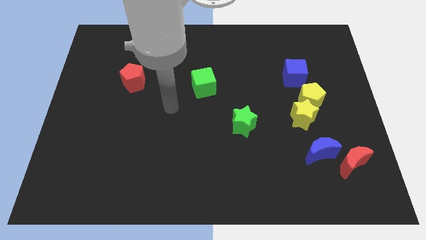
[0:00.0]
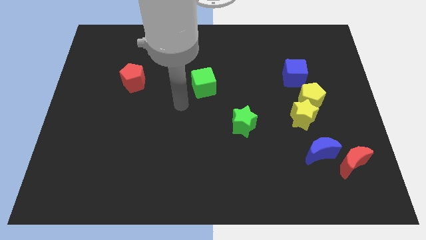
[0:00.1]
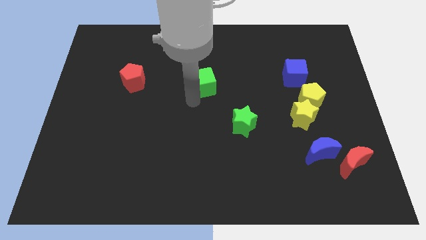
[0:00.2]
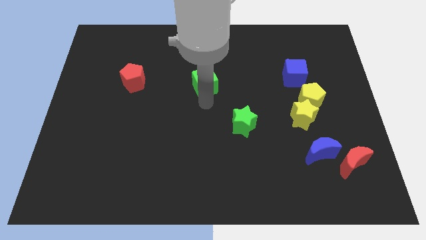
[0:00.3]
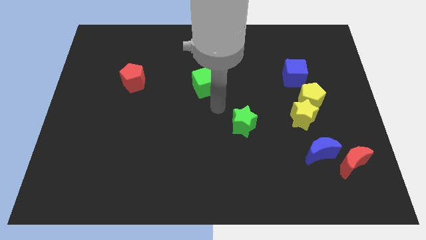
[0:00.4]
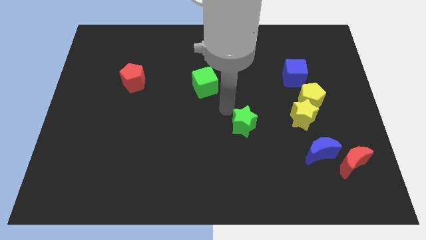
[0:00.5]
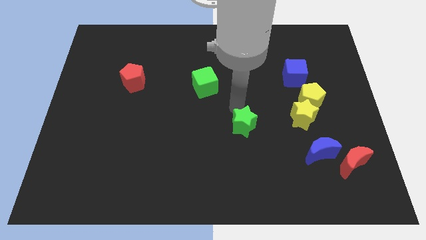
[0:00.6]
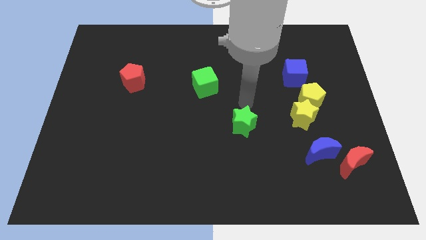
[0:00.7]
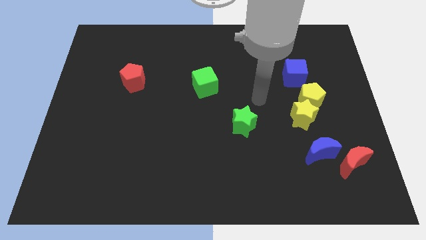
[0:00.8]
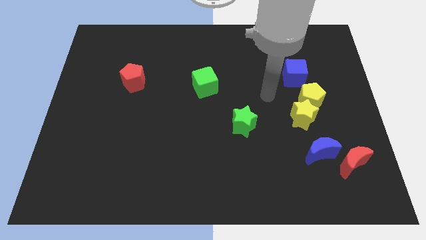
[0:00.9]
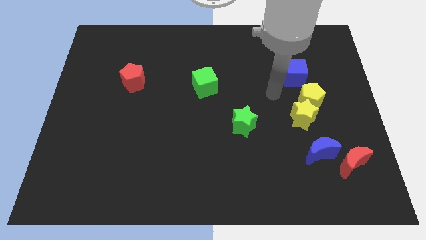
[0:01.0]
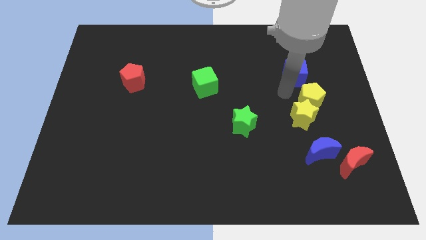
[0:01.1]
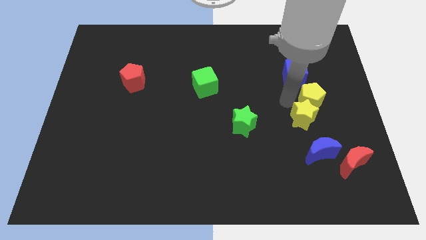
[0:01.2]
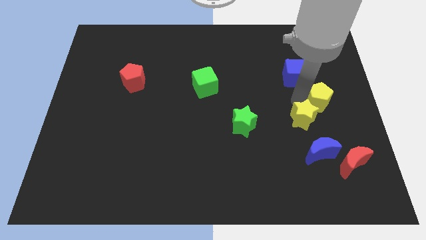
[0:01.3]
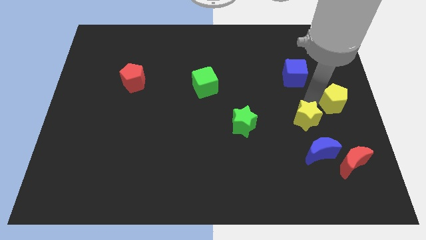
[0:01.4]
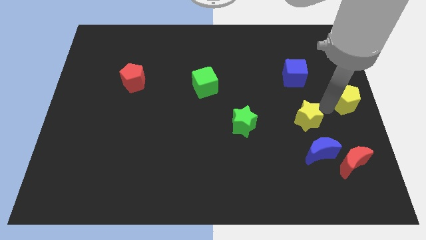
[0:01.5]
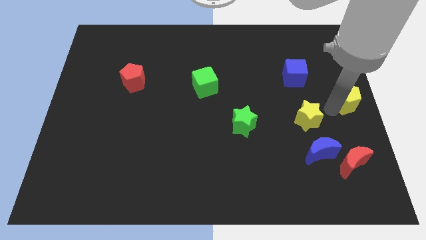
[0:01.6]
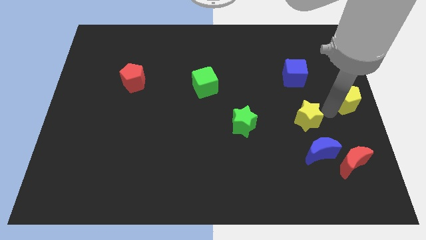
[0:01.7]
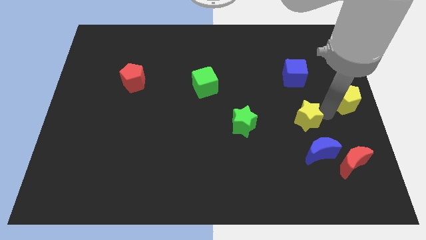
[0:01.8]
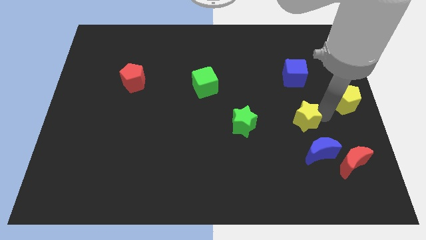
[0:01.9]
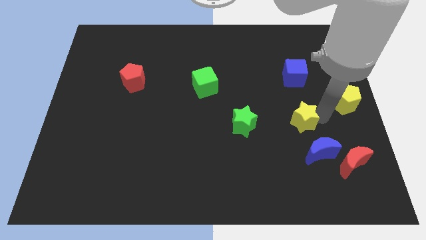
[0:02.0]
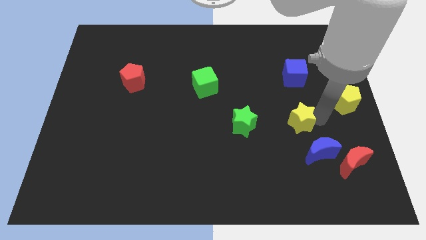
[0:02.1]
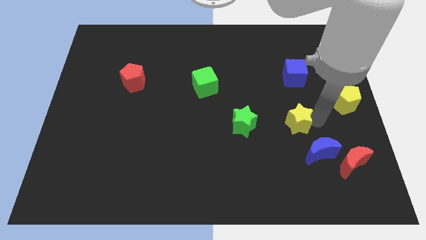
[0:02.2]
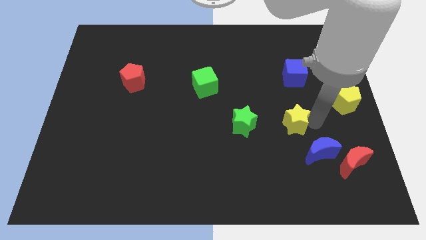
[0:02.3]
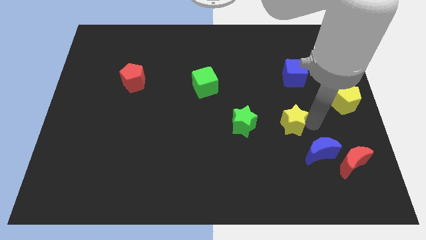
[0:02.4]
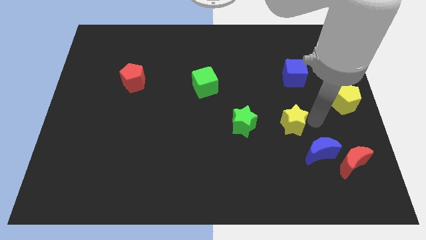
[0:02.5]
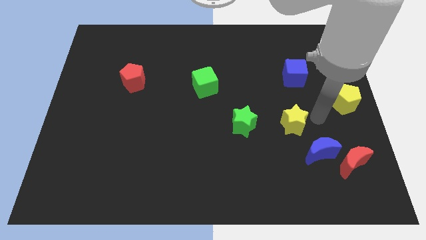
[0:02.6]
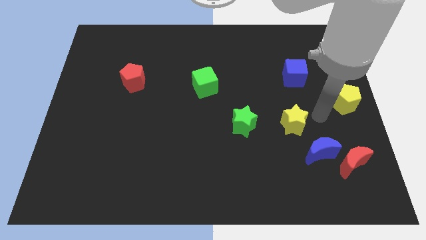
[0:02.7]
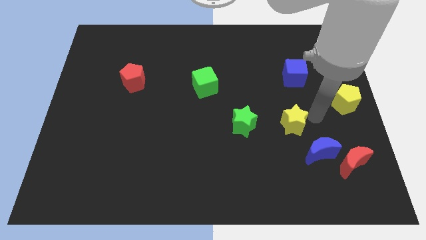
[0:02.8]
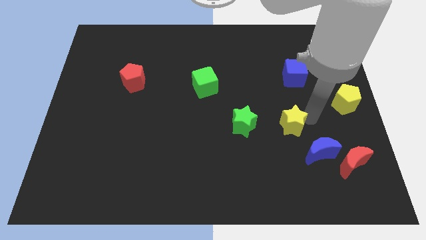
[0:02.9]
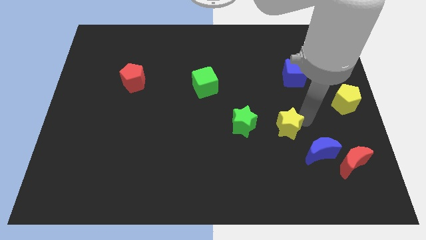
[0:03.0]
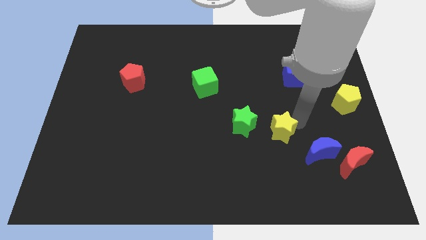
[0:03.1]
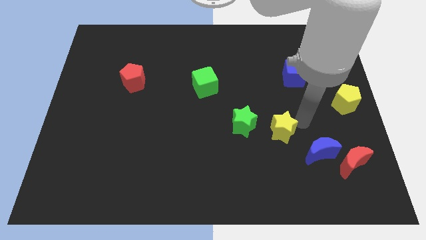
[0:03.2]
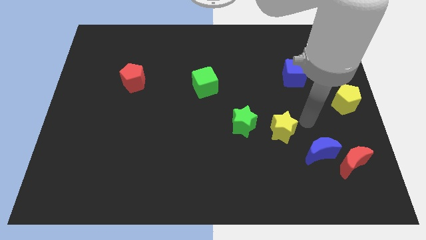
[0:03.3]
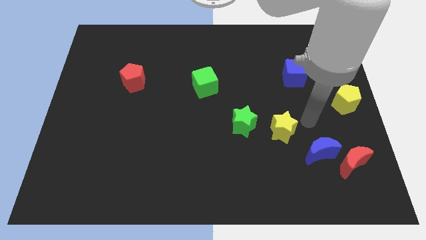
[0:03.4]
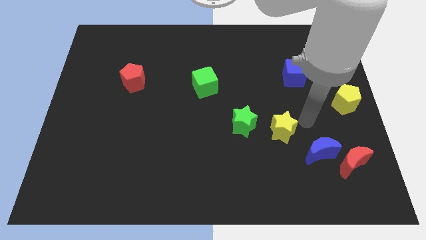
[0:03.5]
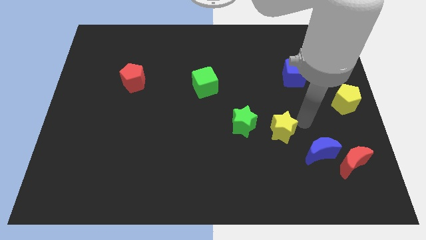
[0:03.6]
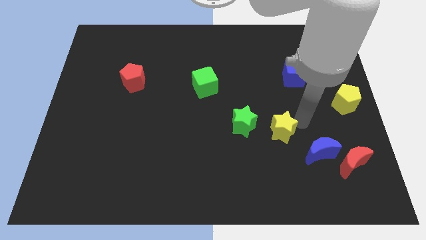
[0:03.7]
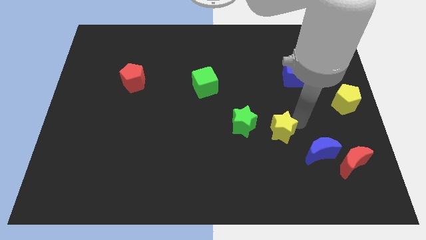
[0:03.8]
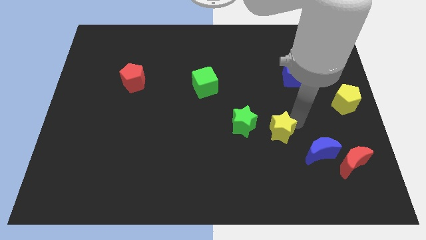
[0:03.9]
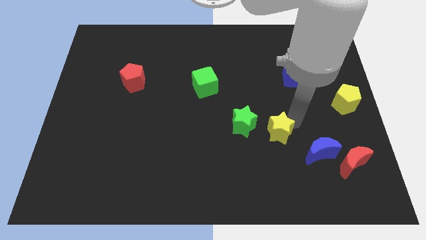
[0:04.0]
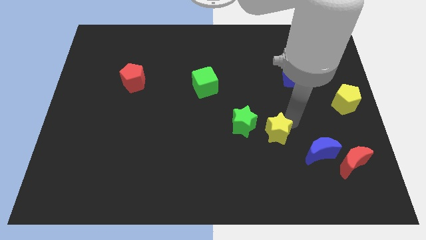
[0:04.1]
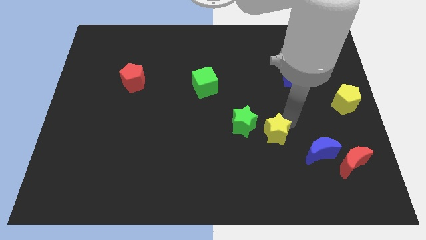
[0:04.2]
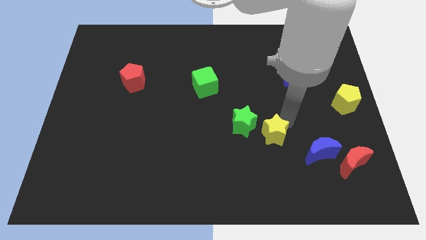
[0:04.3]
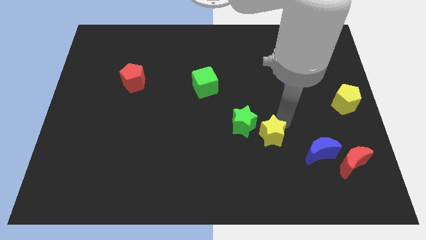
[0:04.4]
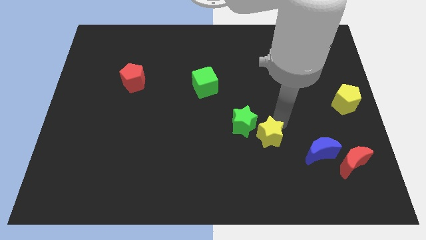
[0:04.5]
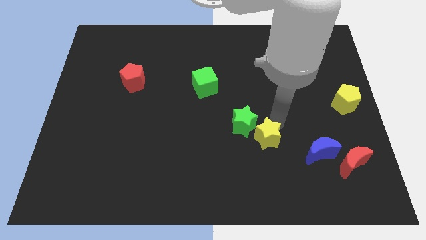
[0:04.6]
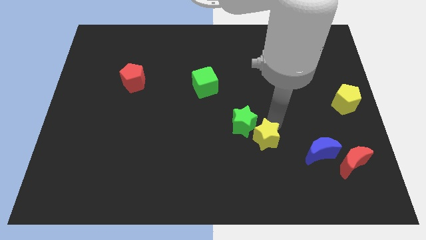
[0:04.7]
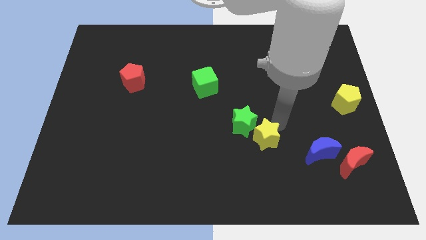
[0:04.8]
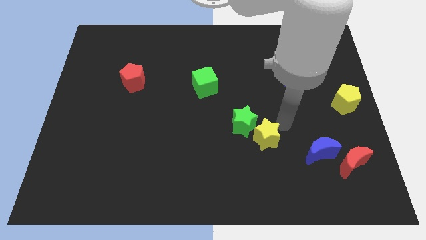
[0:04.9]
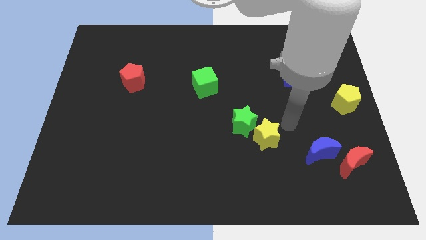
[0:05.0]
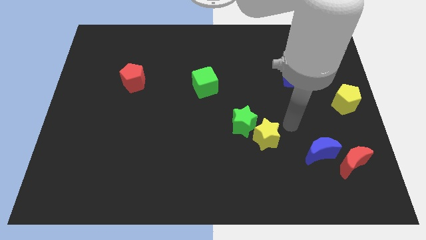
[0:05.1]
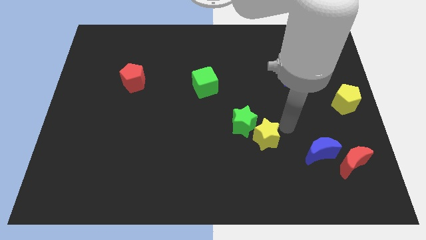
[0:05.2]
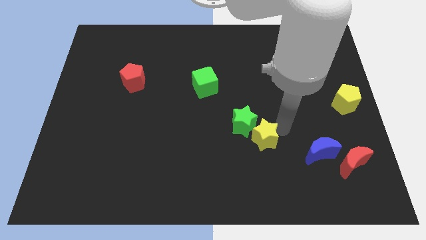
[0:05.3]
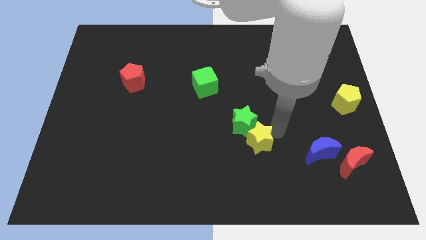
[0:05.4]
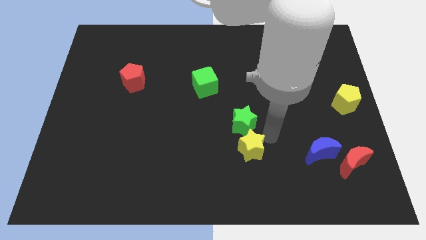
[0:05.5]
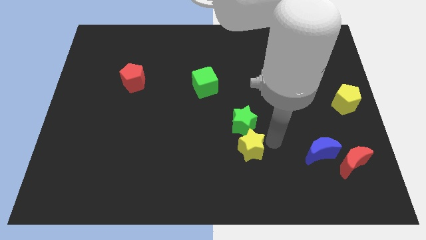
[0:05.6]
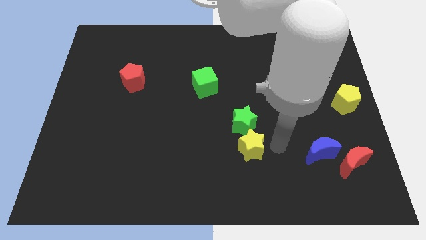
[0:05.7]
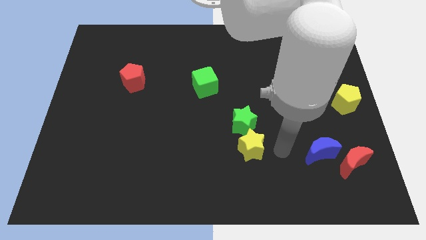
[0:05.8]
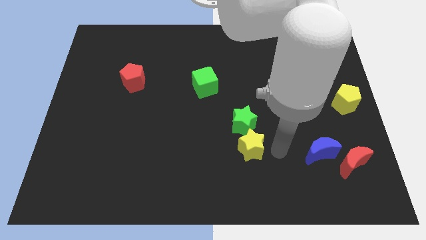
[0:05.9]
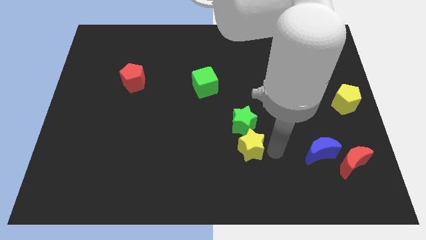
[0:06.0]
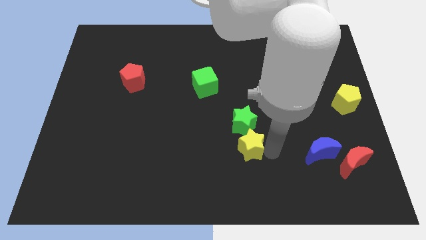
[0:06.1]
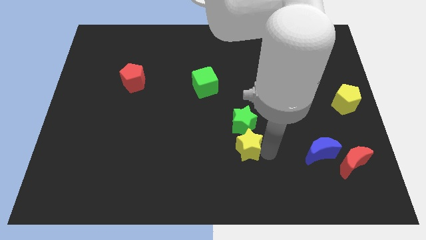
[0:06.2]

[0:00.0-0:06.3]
push the yellow star to the bottom left of the green star
